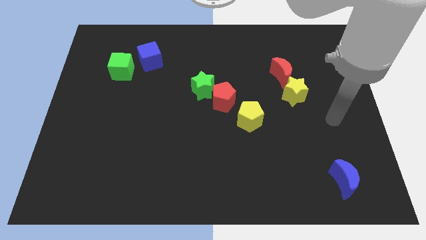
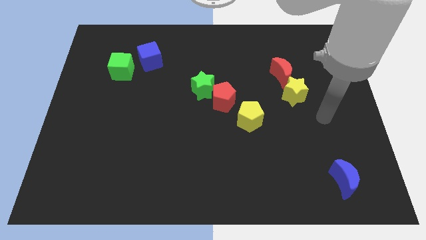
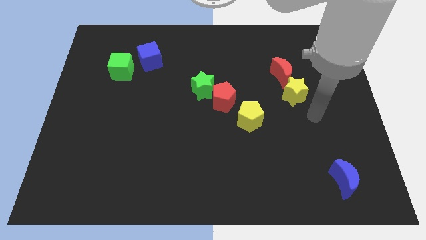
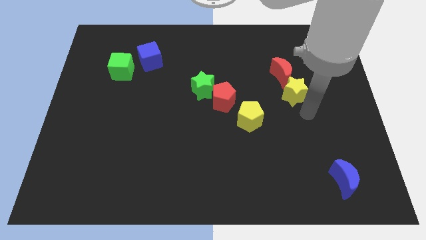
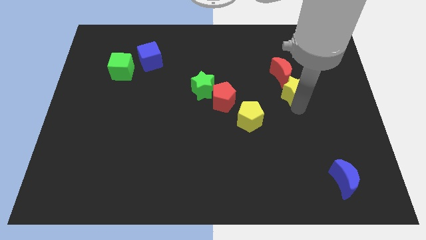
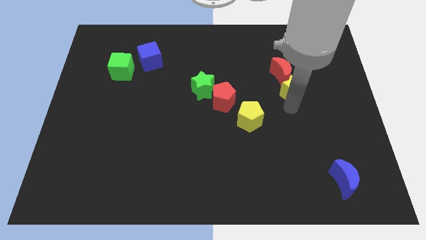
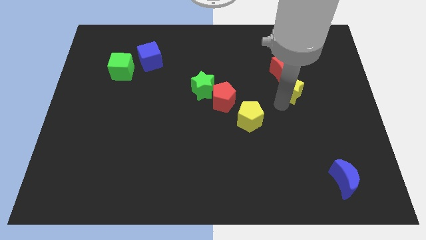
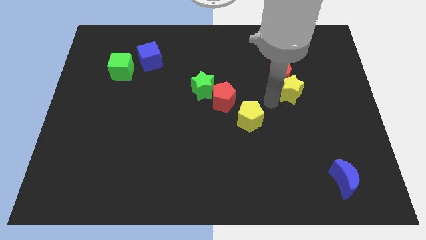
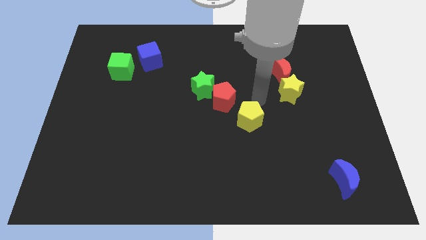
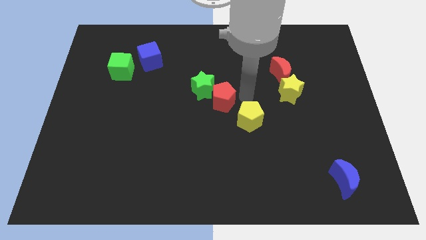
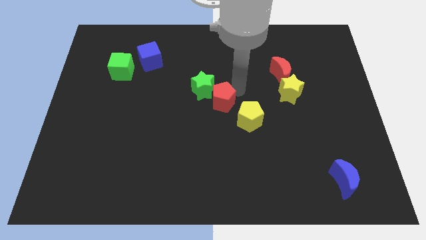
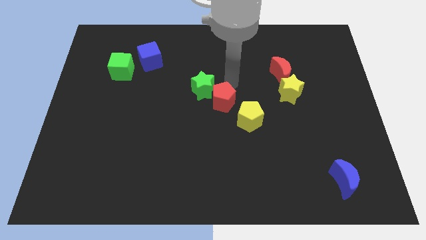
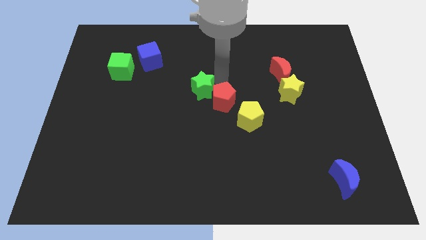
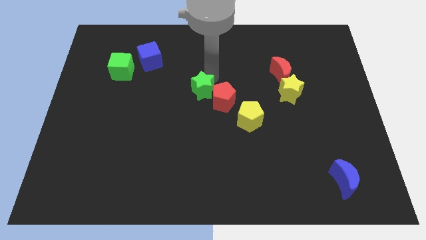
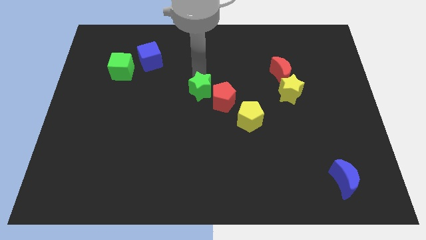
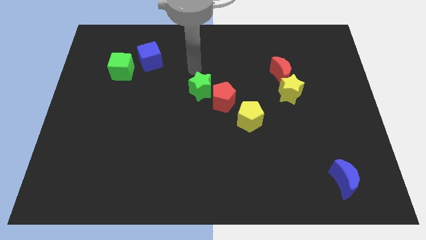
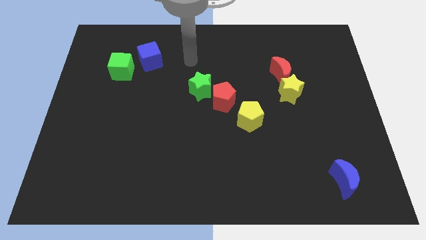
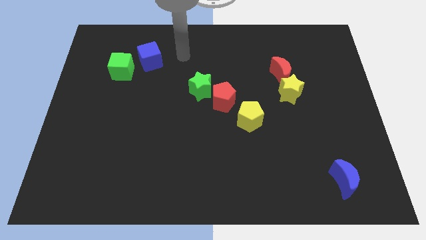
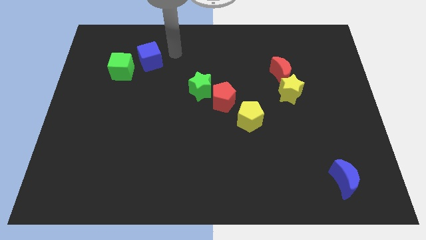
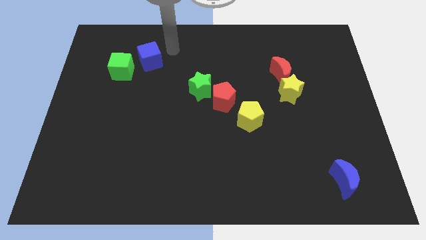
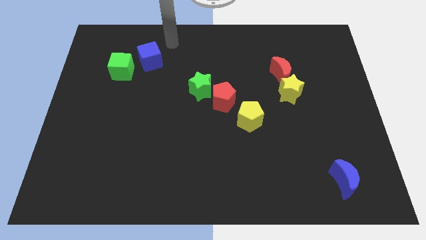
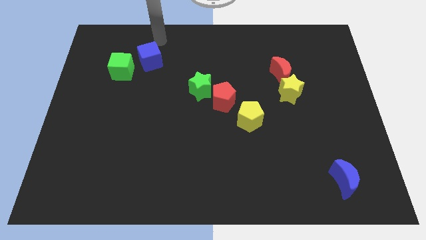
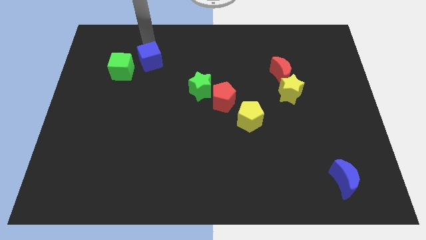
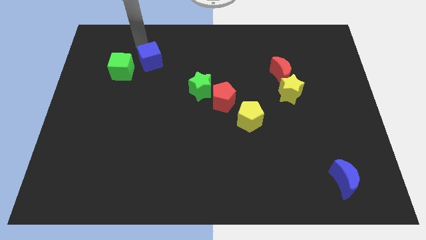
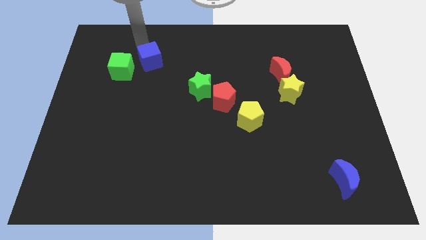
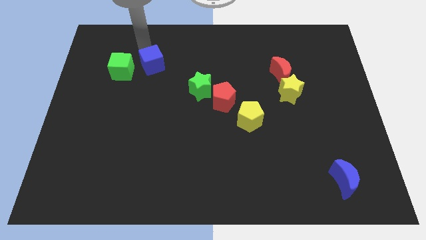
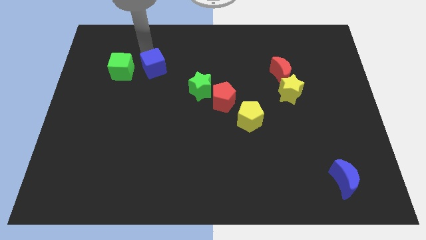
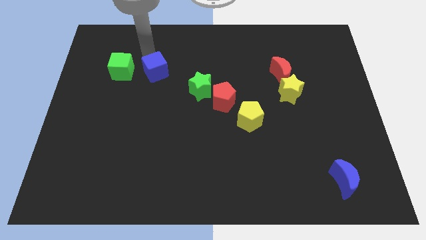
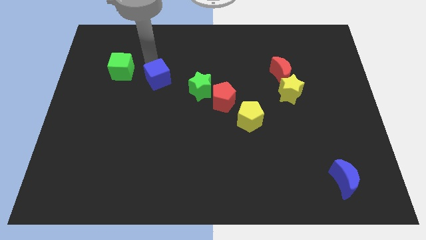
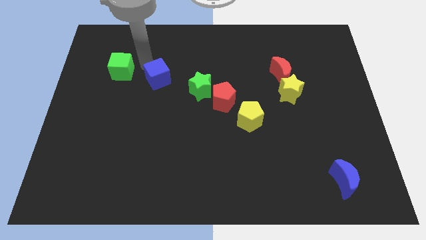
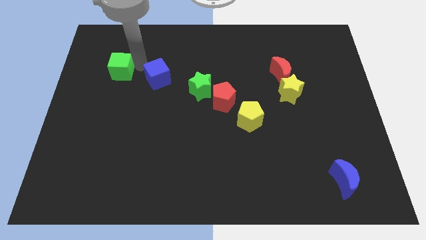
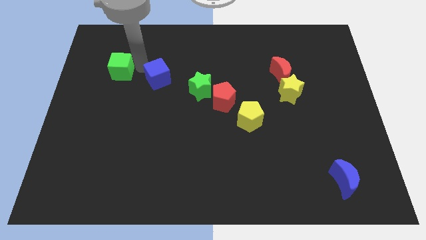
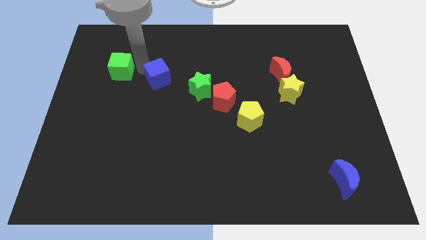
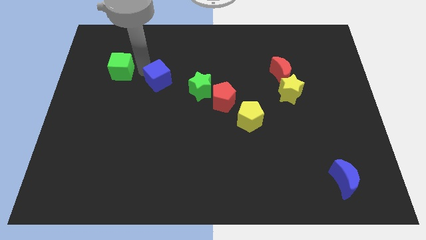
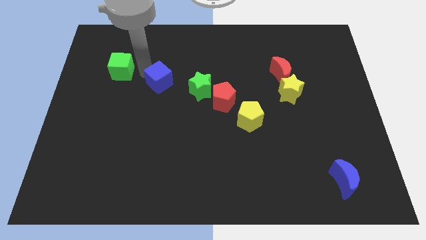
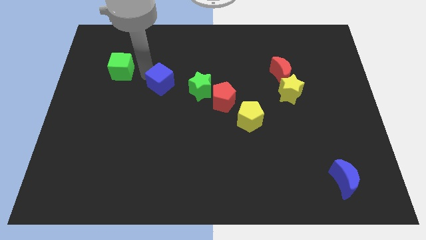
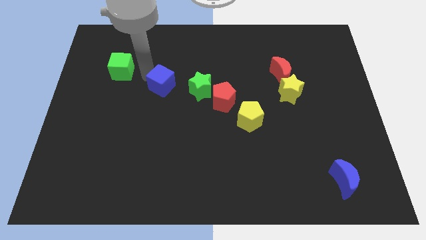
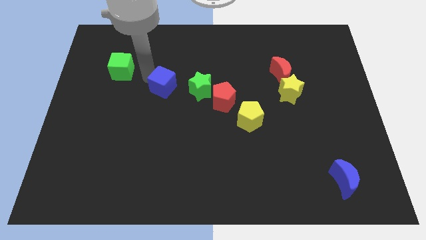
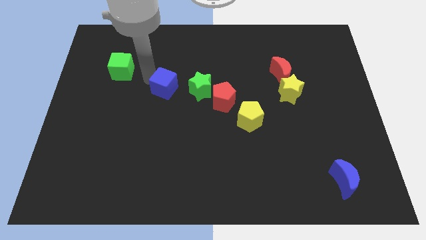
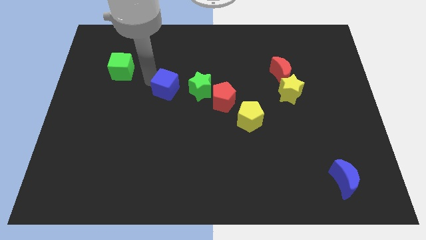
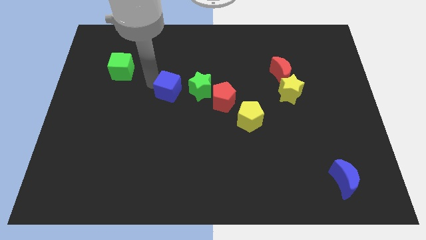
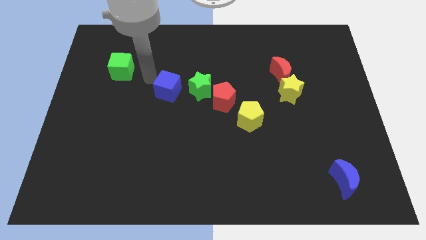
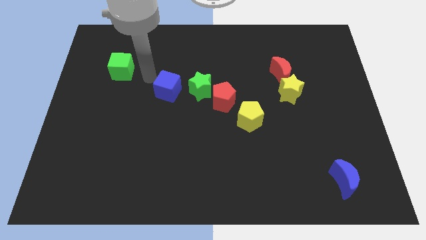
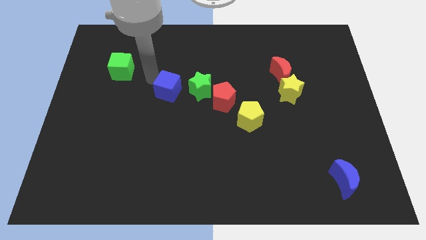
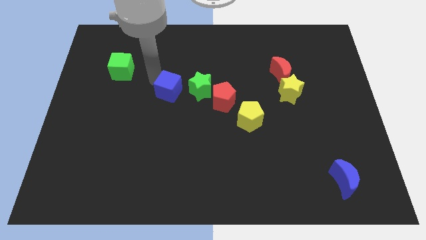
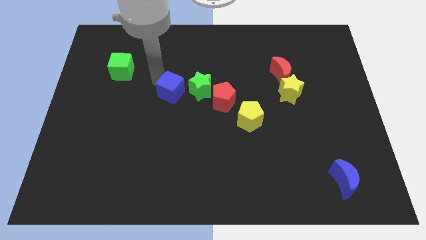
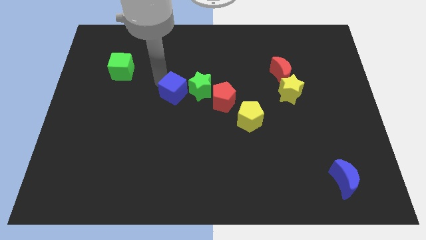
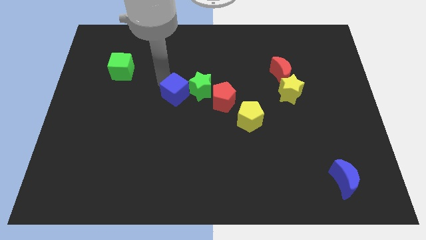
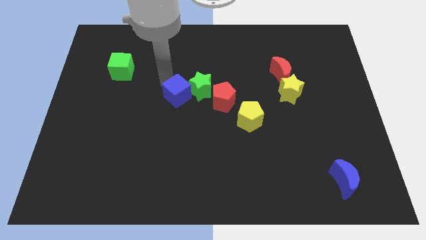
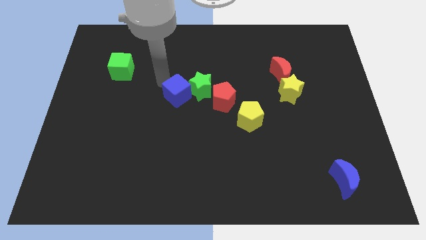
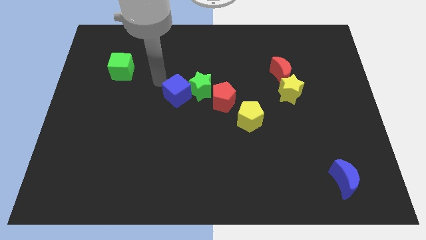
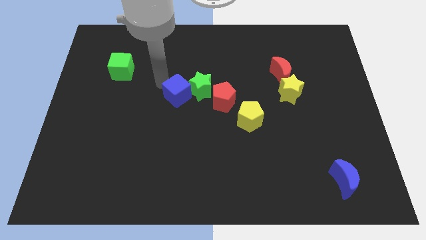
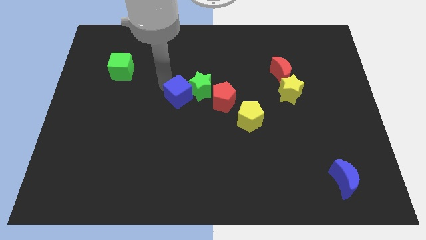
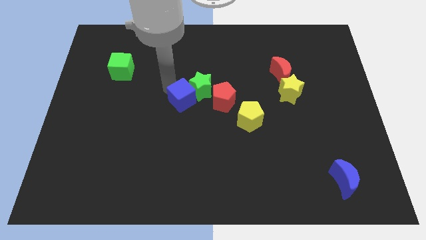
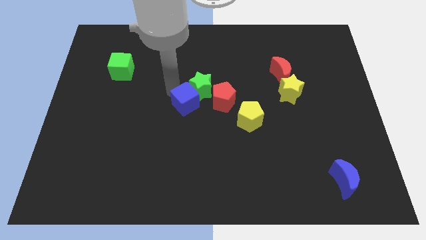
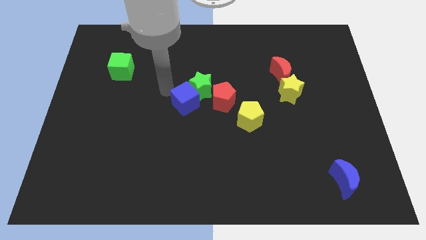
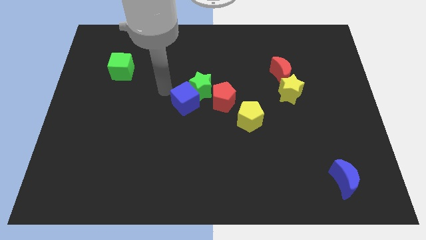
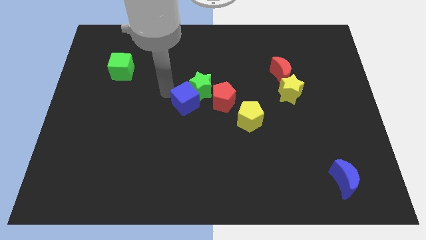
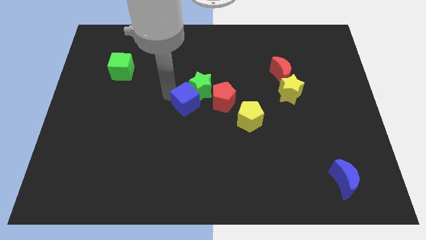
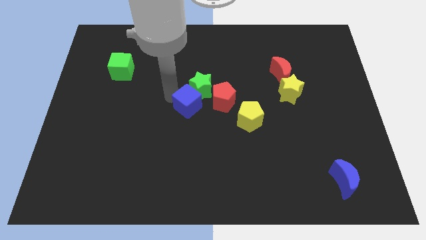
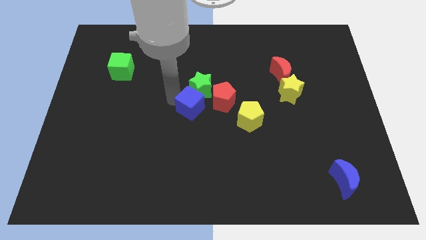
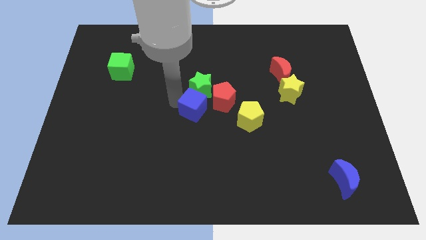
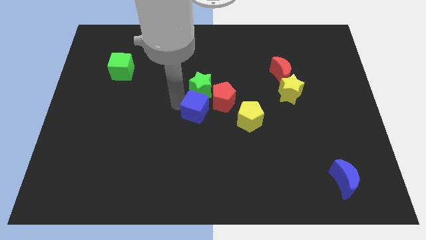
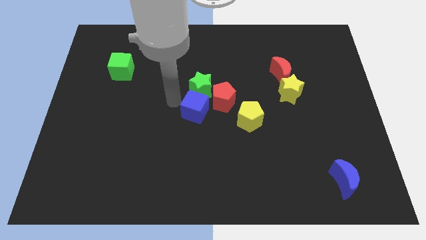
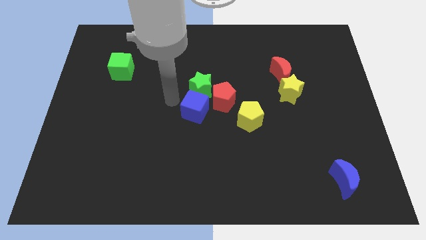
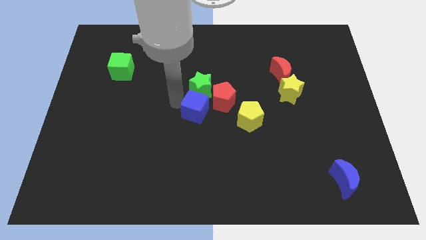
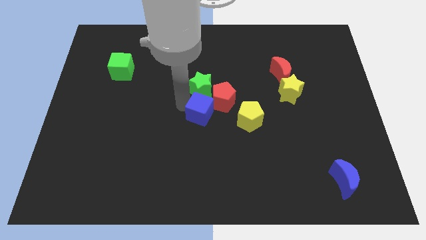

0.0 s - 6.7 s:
move the blue cube to the bottom right side of the green star
